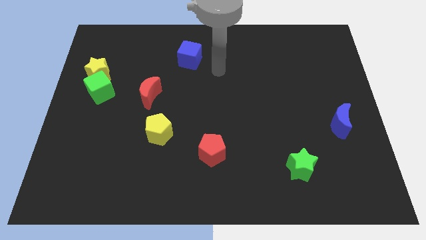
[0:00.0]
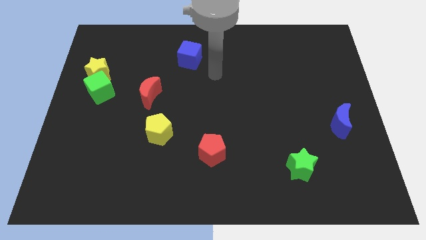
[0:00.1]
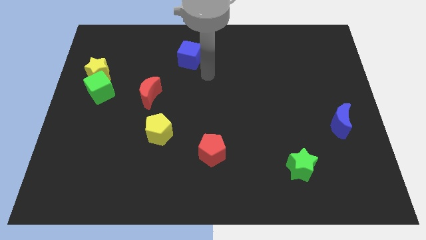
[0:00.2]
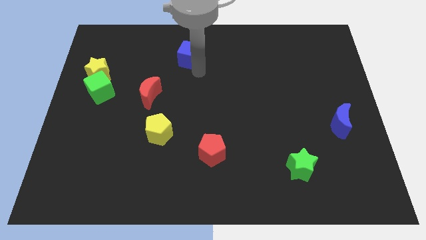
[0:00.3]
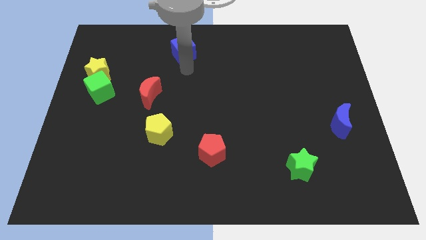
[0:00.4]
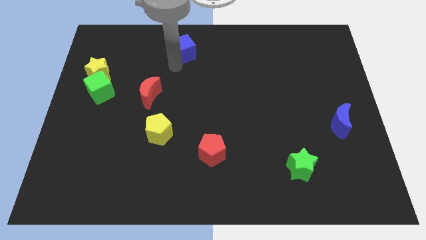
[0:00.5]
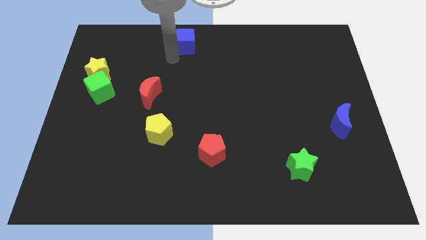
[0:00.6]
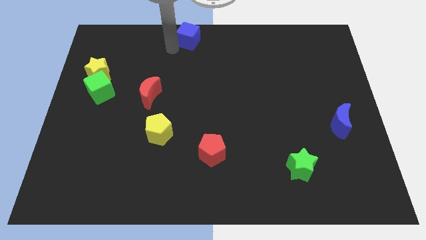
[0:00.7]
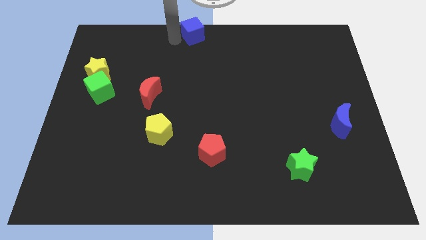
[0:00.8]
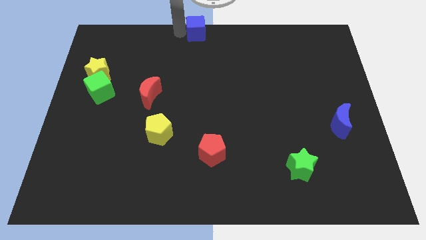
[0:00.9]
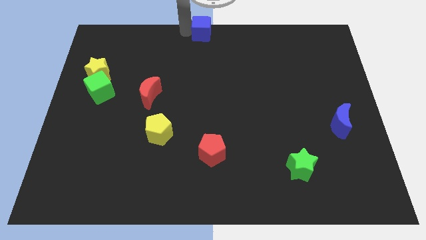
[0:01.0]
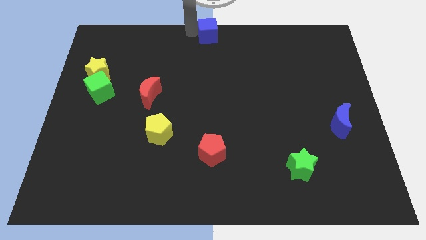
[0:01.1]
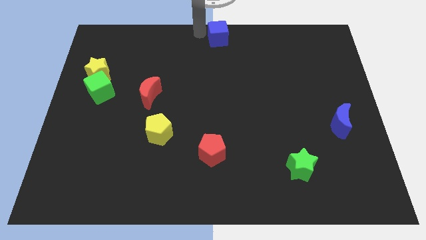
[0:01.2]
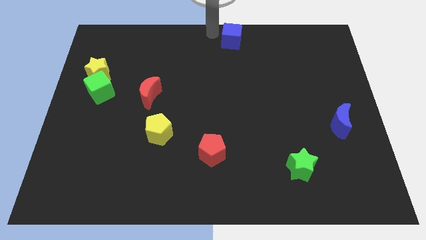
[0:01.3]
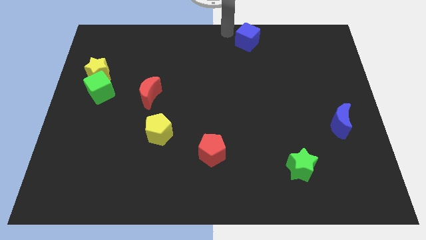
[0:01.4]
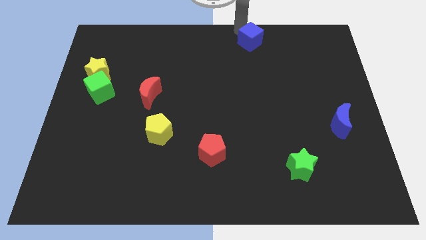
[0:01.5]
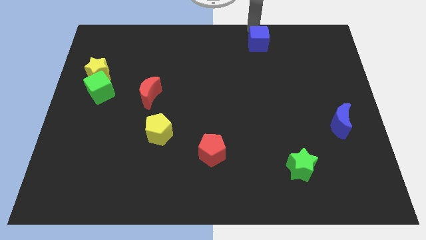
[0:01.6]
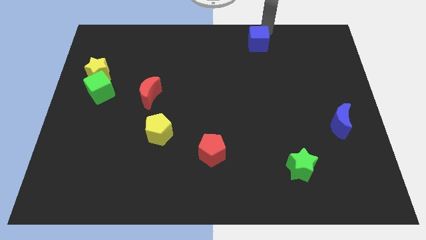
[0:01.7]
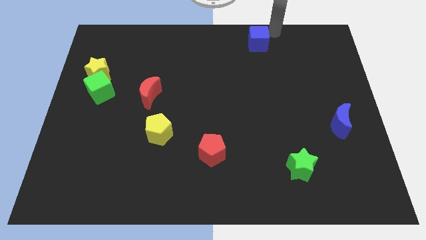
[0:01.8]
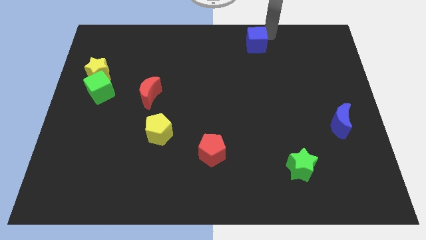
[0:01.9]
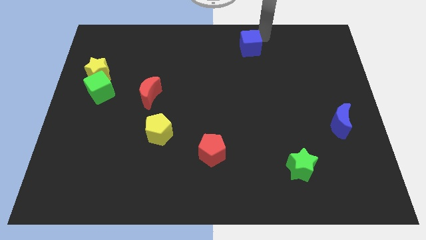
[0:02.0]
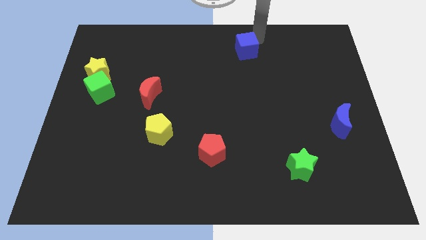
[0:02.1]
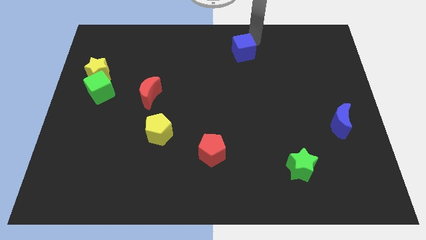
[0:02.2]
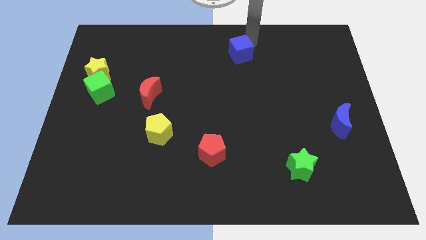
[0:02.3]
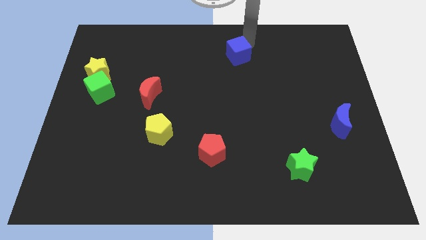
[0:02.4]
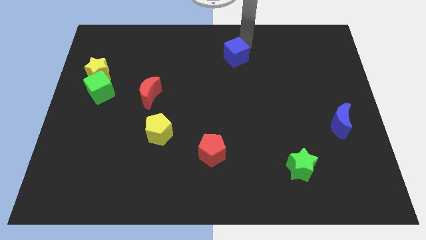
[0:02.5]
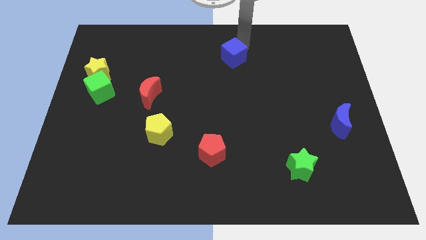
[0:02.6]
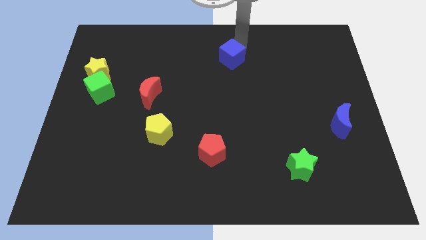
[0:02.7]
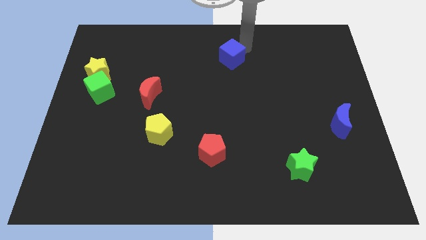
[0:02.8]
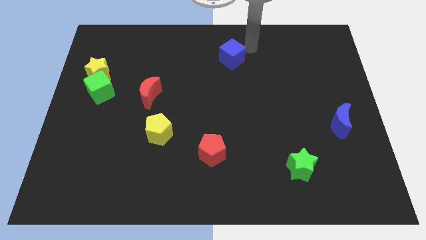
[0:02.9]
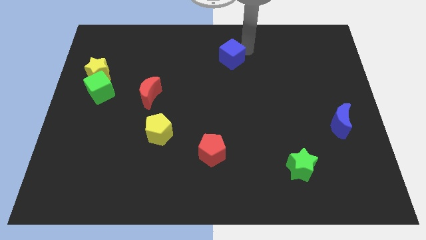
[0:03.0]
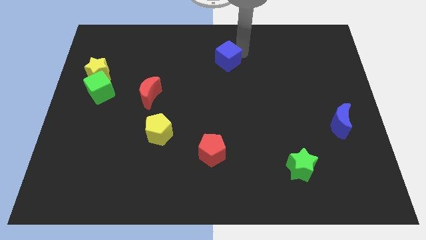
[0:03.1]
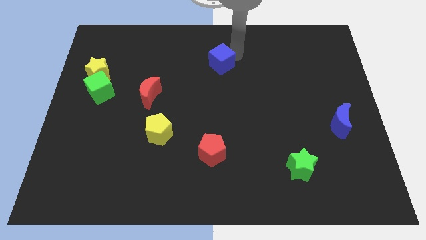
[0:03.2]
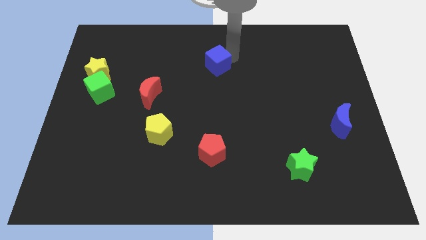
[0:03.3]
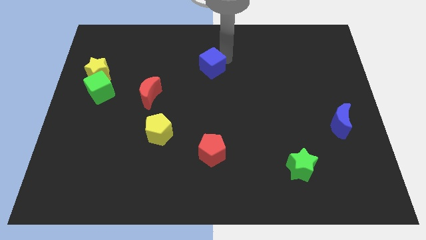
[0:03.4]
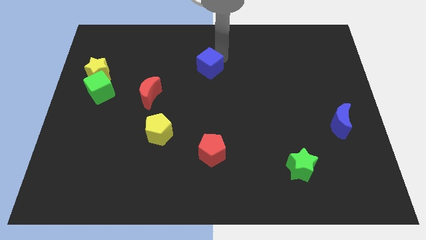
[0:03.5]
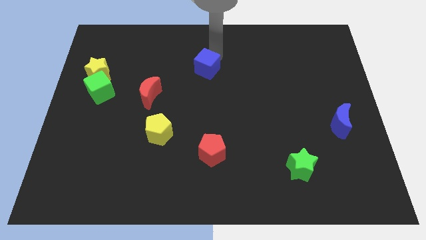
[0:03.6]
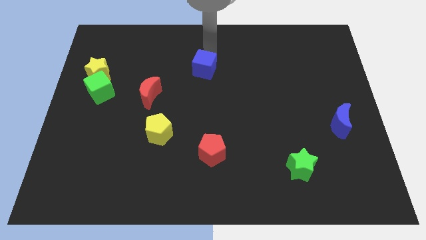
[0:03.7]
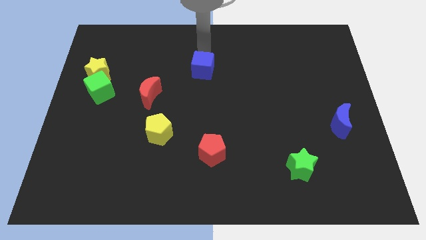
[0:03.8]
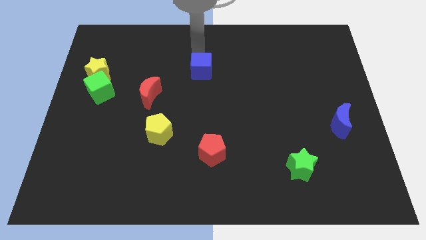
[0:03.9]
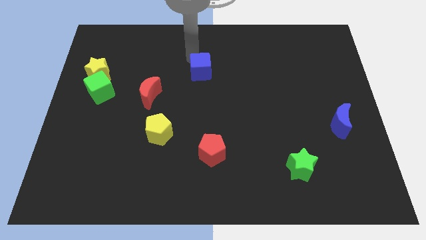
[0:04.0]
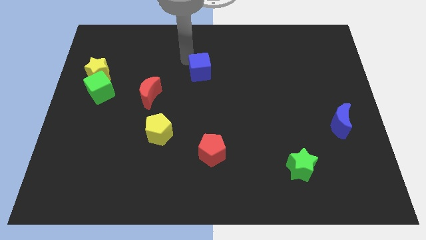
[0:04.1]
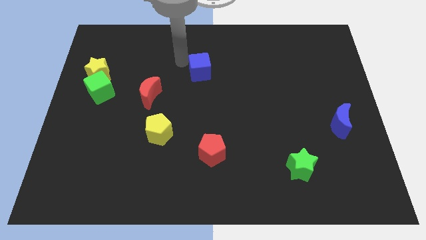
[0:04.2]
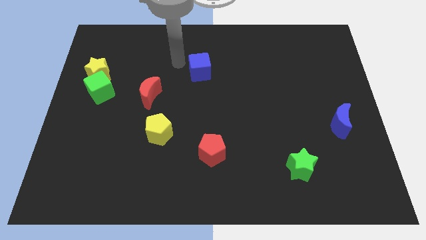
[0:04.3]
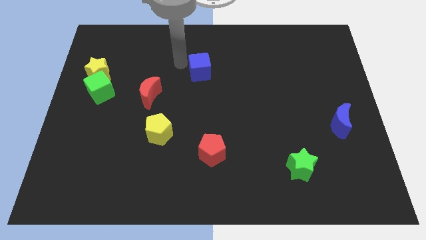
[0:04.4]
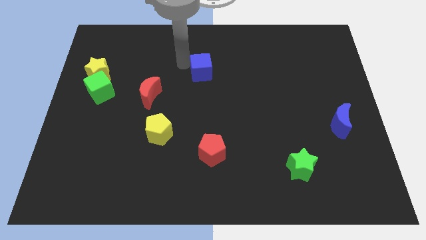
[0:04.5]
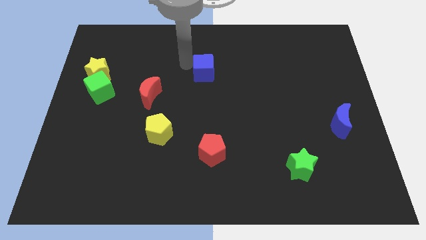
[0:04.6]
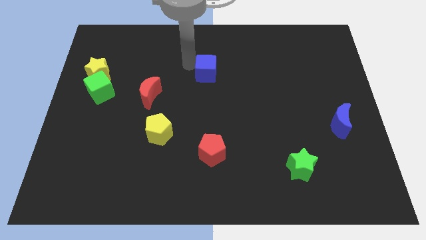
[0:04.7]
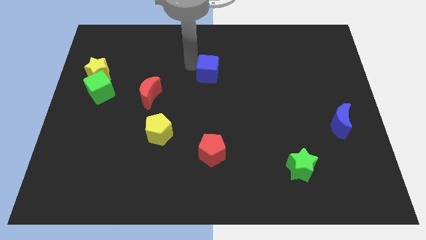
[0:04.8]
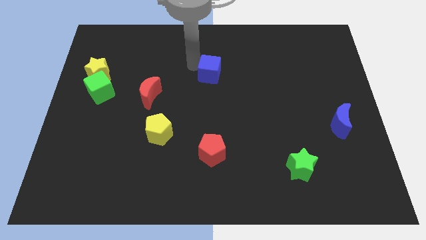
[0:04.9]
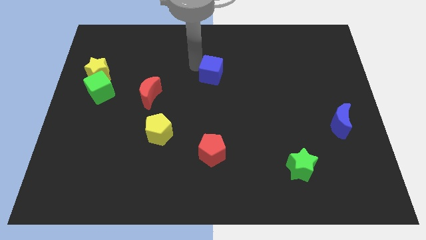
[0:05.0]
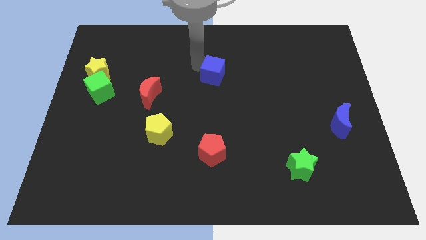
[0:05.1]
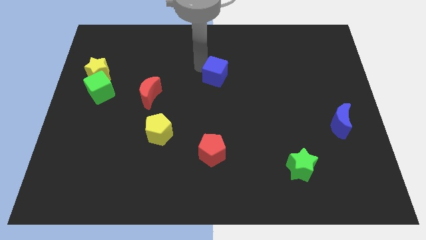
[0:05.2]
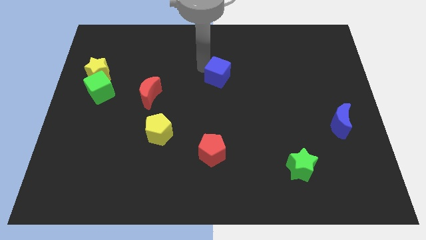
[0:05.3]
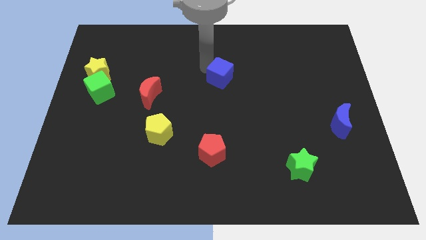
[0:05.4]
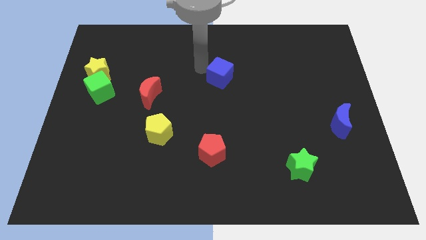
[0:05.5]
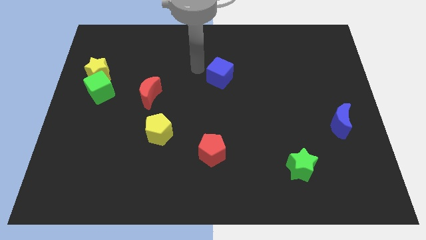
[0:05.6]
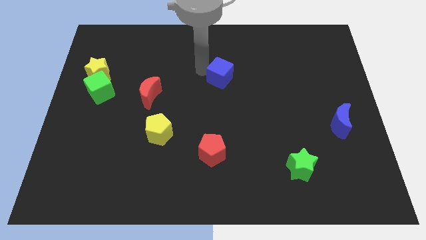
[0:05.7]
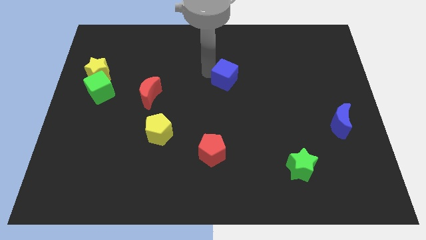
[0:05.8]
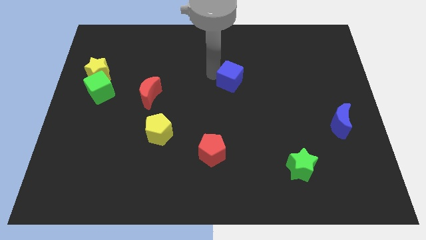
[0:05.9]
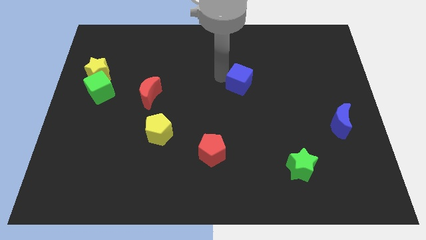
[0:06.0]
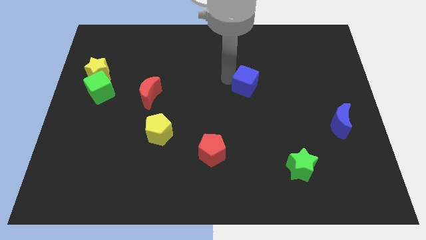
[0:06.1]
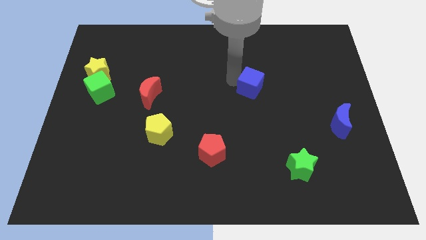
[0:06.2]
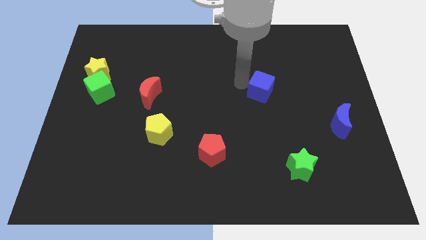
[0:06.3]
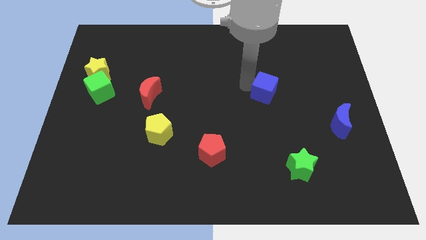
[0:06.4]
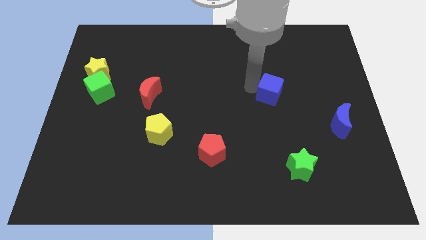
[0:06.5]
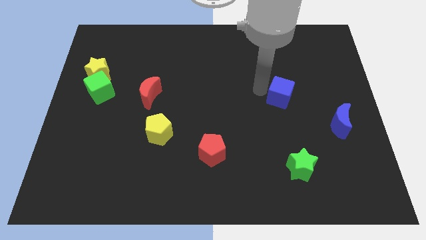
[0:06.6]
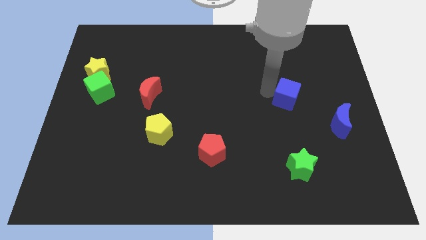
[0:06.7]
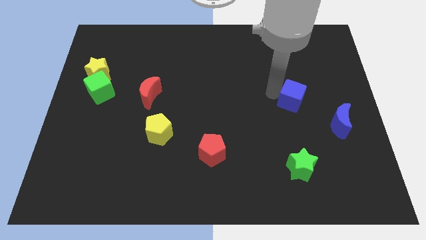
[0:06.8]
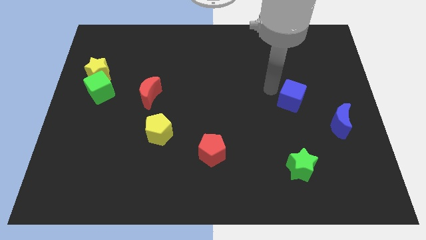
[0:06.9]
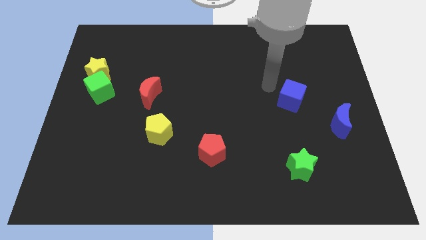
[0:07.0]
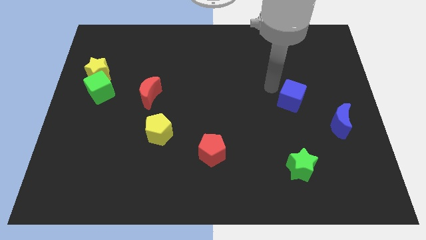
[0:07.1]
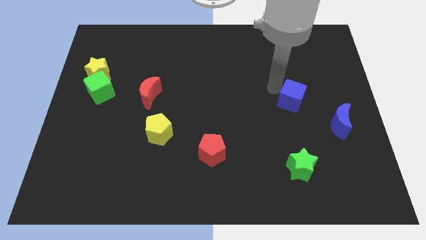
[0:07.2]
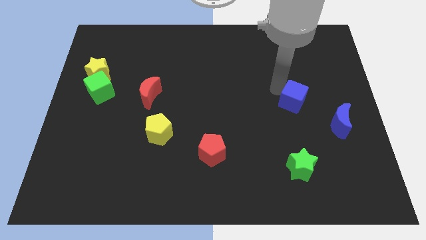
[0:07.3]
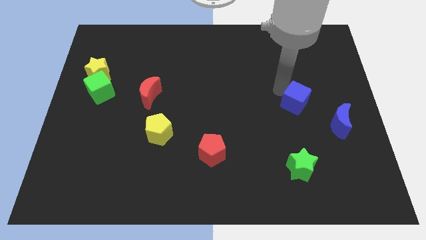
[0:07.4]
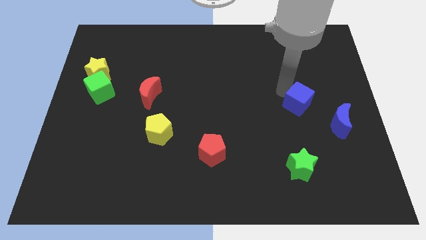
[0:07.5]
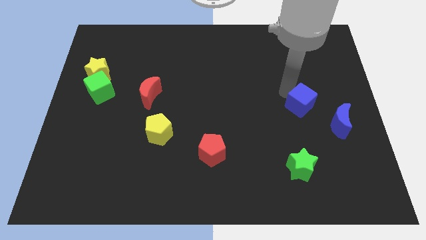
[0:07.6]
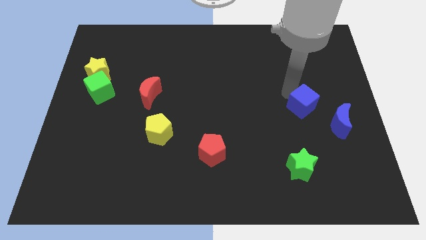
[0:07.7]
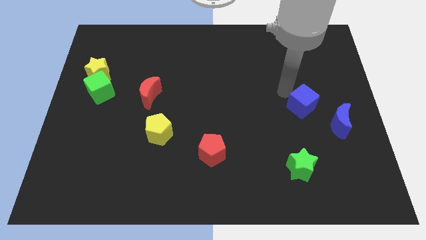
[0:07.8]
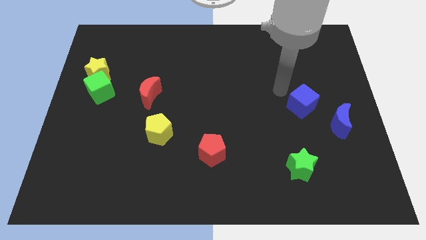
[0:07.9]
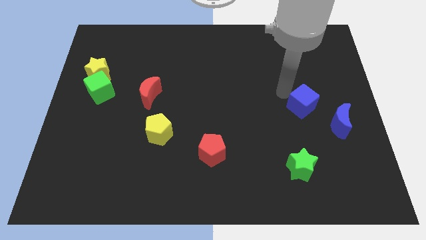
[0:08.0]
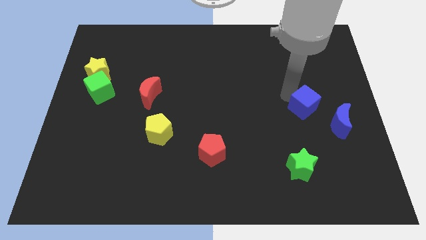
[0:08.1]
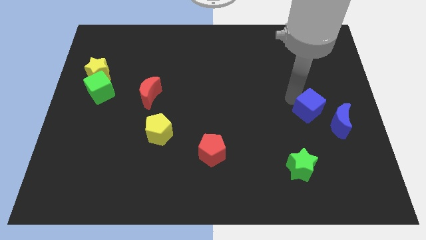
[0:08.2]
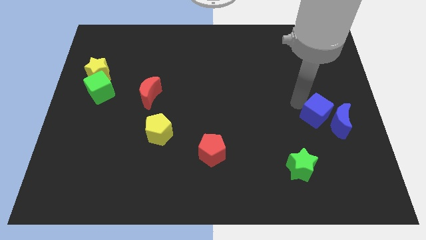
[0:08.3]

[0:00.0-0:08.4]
push the blue cube close to the blue moon
